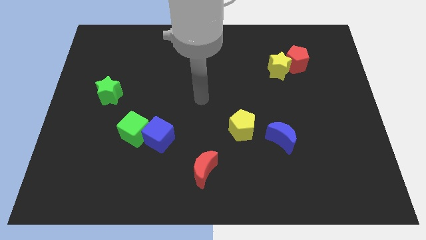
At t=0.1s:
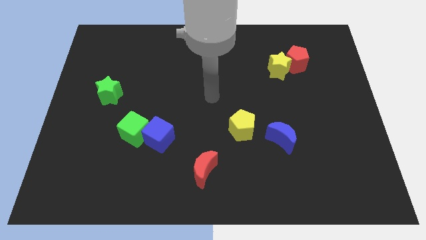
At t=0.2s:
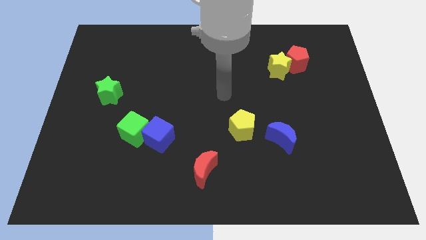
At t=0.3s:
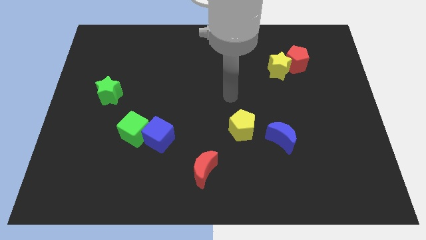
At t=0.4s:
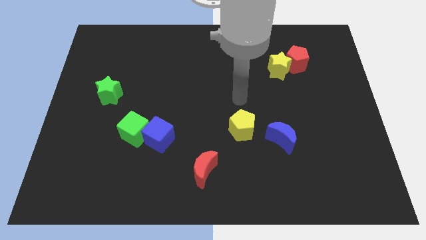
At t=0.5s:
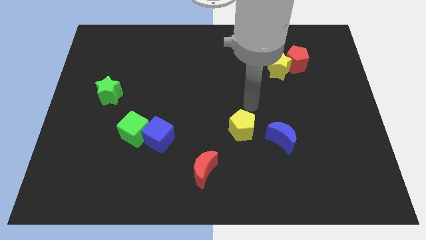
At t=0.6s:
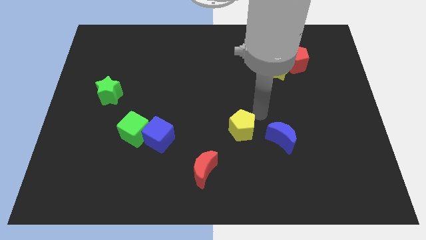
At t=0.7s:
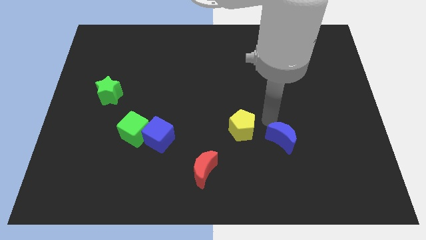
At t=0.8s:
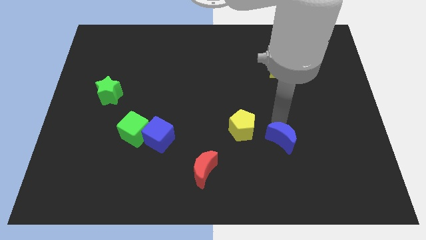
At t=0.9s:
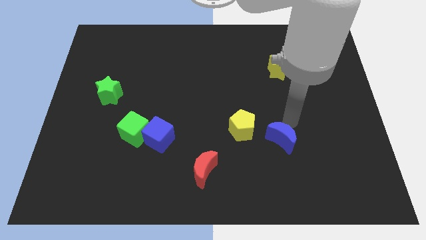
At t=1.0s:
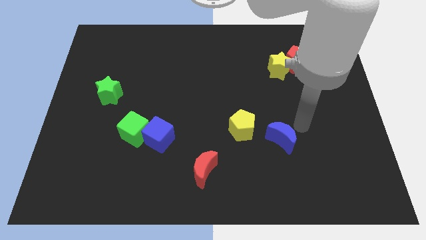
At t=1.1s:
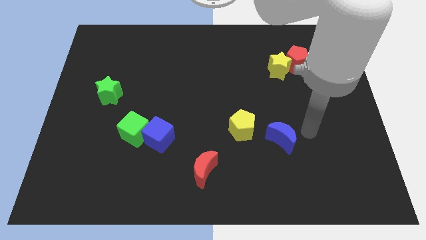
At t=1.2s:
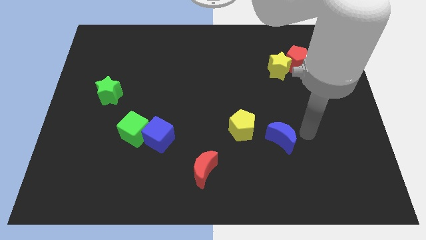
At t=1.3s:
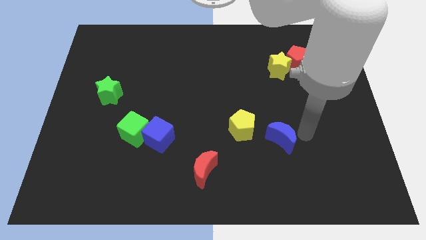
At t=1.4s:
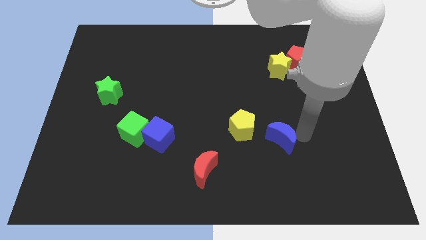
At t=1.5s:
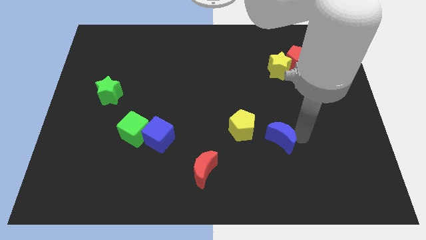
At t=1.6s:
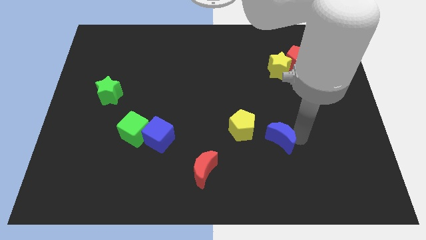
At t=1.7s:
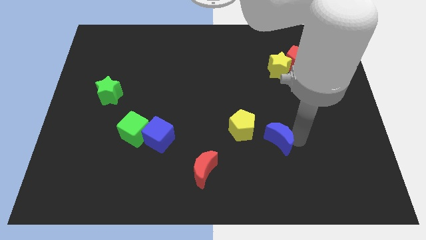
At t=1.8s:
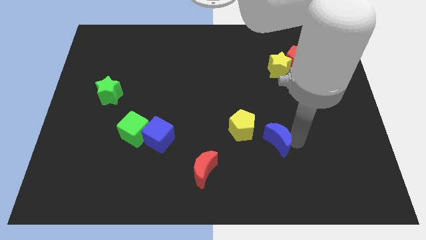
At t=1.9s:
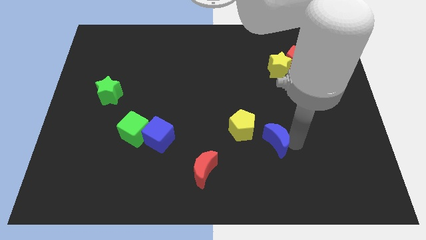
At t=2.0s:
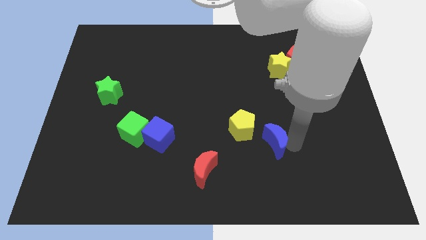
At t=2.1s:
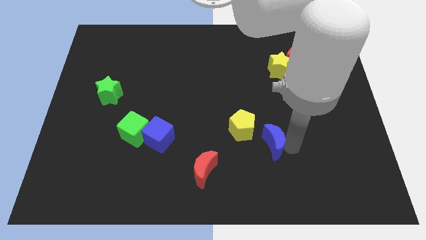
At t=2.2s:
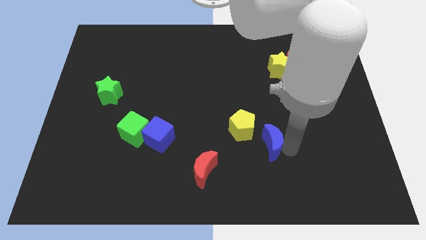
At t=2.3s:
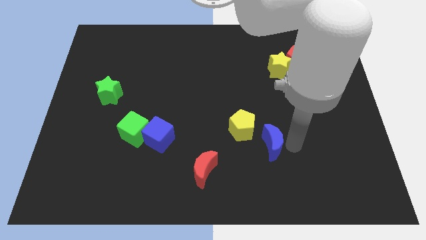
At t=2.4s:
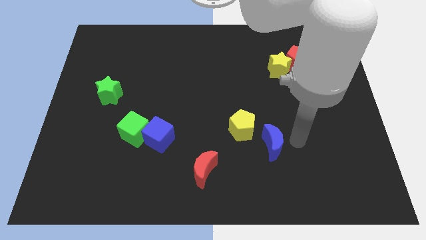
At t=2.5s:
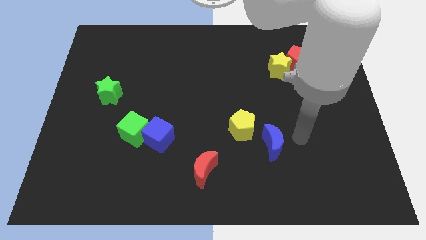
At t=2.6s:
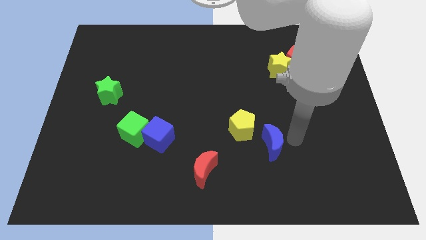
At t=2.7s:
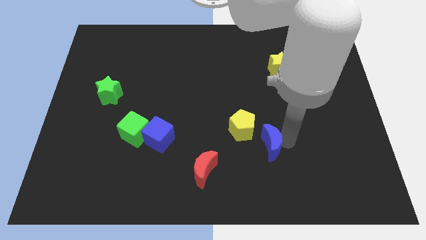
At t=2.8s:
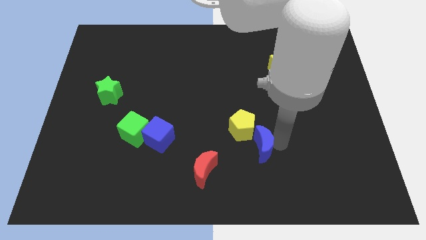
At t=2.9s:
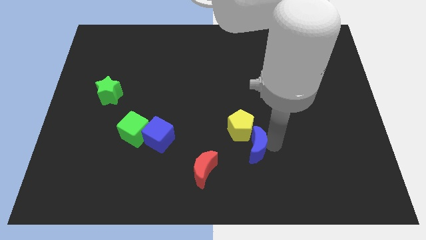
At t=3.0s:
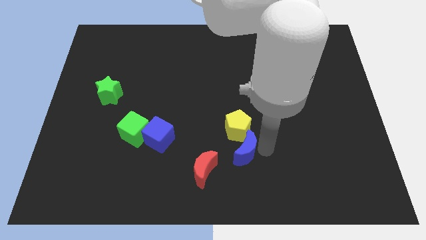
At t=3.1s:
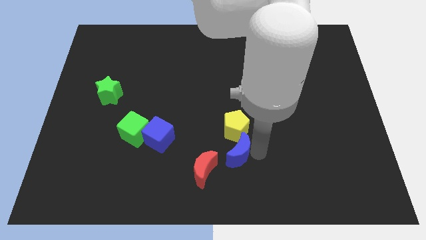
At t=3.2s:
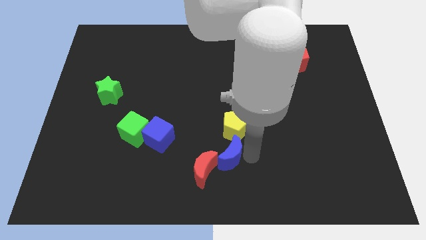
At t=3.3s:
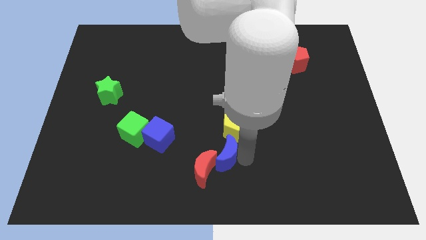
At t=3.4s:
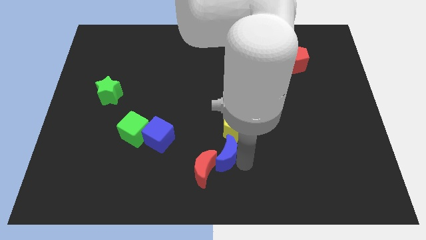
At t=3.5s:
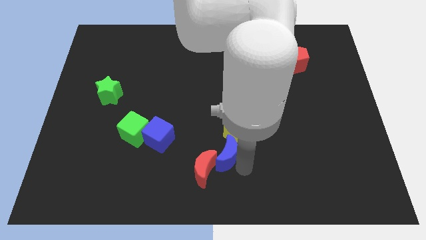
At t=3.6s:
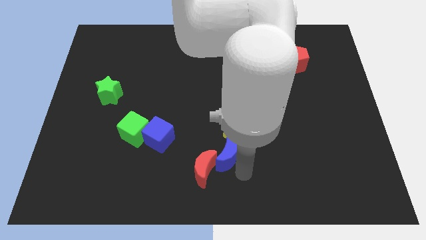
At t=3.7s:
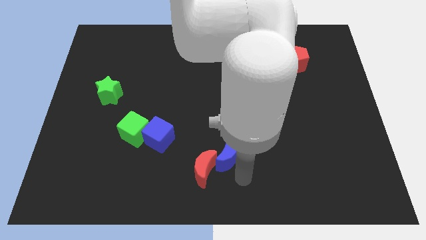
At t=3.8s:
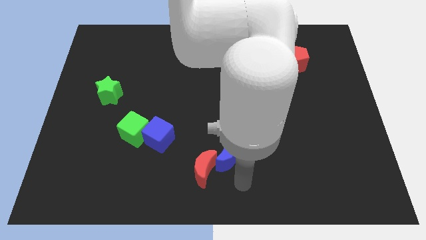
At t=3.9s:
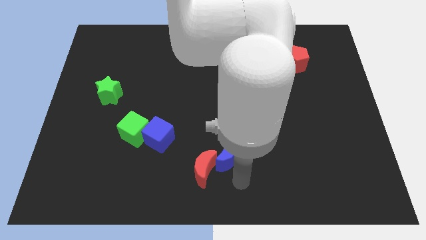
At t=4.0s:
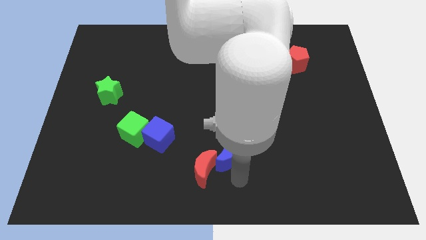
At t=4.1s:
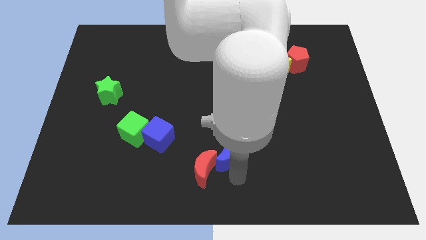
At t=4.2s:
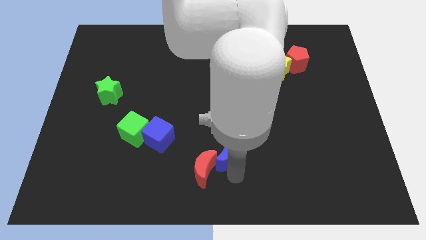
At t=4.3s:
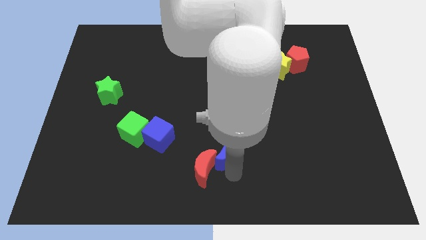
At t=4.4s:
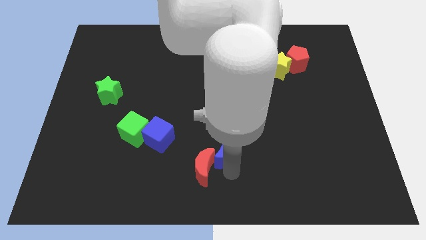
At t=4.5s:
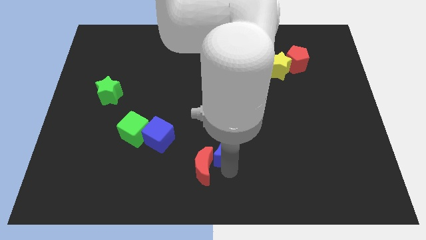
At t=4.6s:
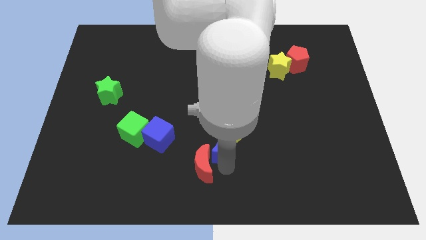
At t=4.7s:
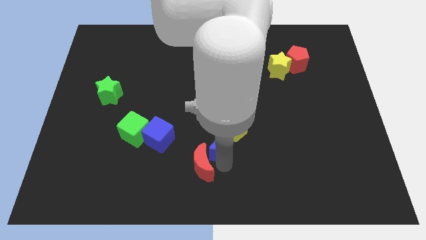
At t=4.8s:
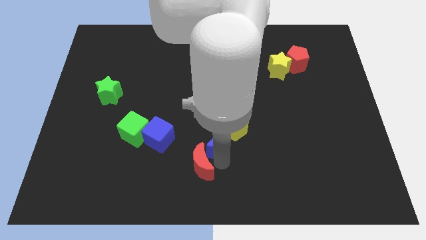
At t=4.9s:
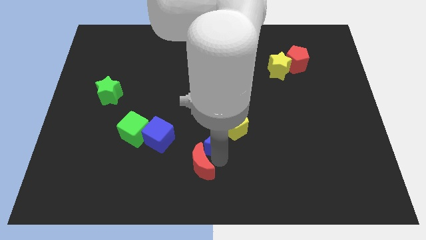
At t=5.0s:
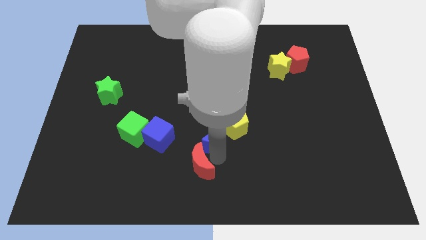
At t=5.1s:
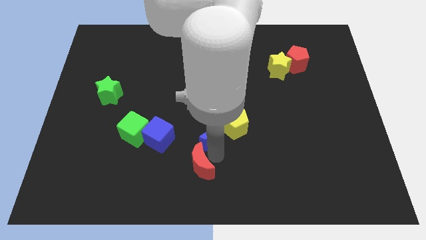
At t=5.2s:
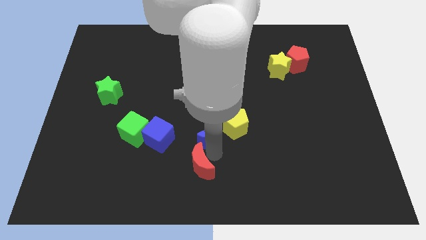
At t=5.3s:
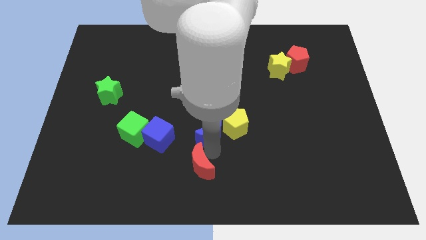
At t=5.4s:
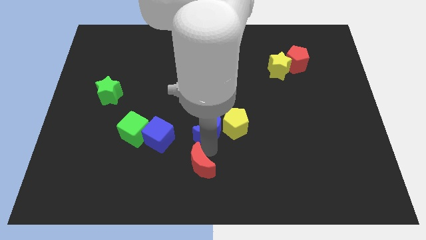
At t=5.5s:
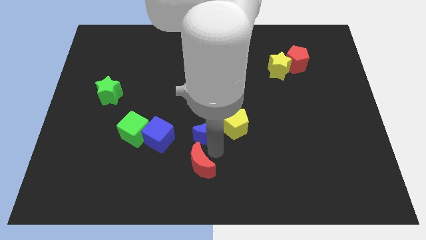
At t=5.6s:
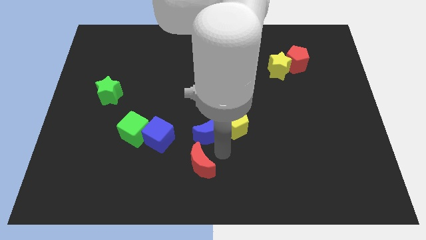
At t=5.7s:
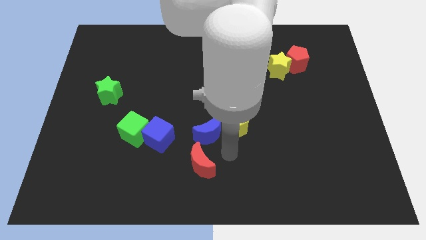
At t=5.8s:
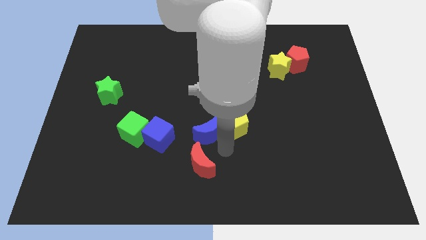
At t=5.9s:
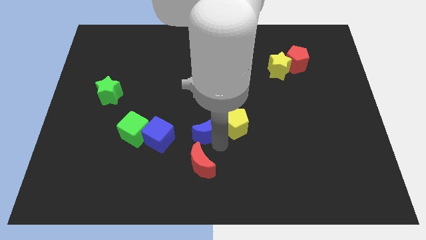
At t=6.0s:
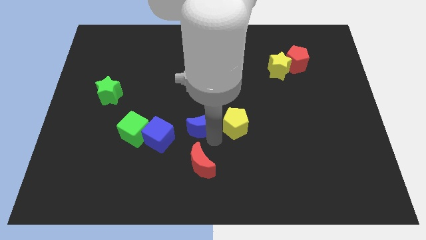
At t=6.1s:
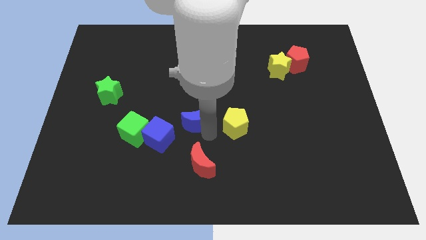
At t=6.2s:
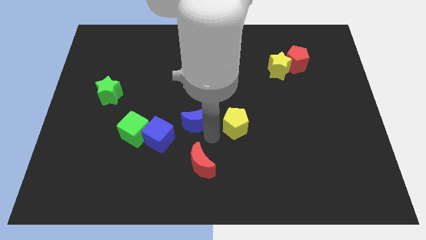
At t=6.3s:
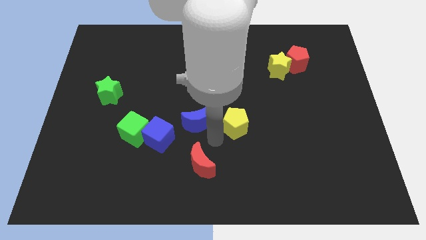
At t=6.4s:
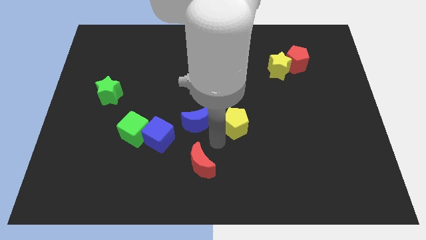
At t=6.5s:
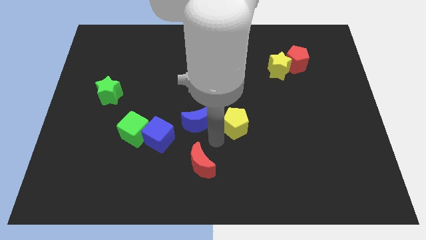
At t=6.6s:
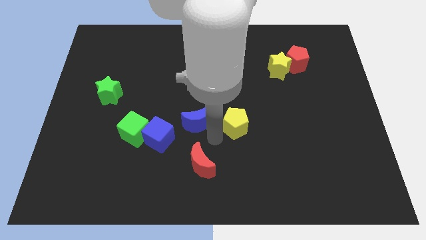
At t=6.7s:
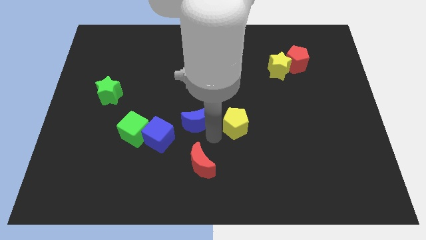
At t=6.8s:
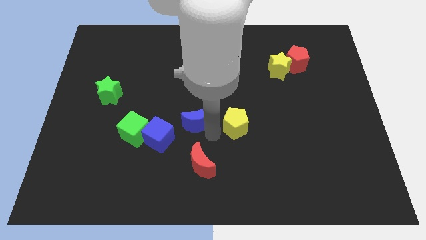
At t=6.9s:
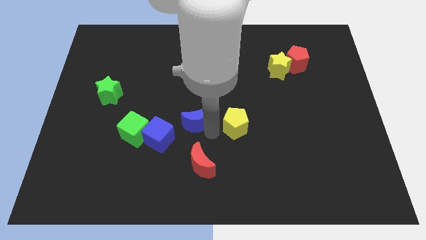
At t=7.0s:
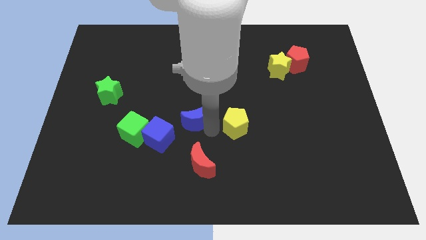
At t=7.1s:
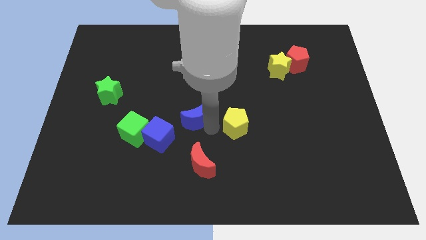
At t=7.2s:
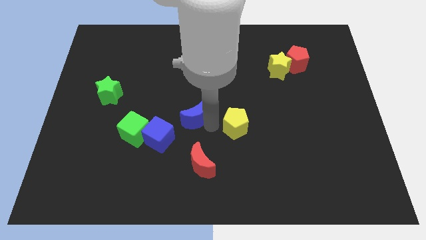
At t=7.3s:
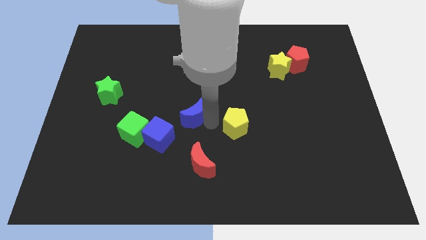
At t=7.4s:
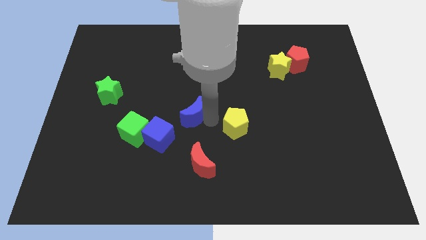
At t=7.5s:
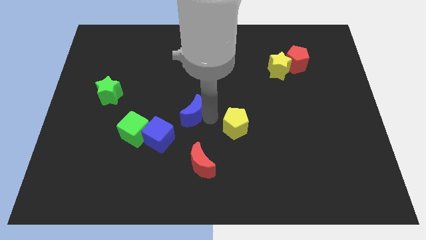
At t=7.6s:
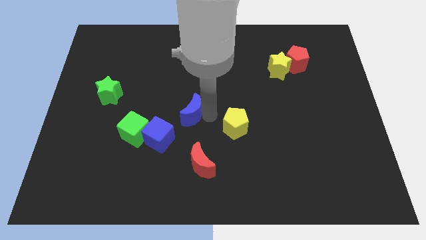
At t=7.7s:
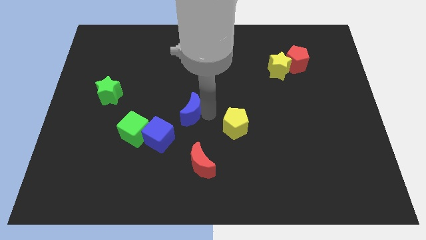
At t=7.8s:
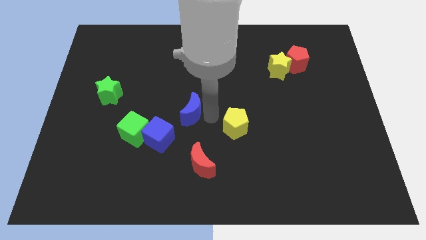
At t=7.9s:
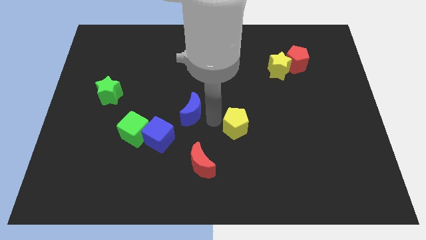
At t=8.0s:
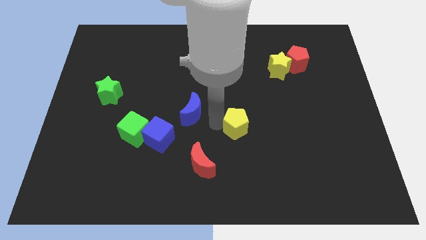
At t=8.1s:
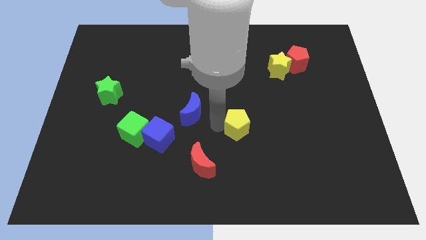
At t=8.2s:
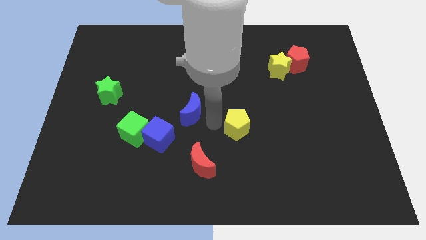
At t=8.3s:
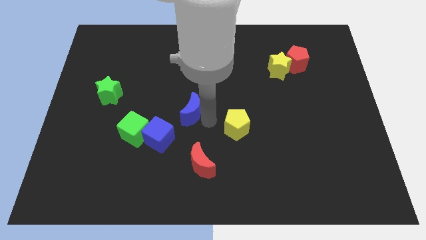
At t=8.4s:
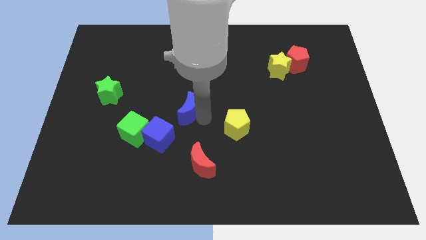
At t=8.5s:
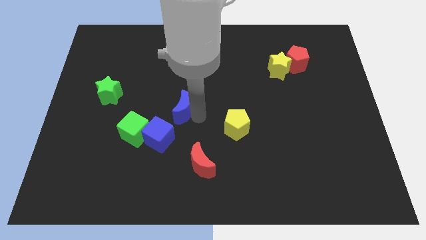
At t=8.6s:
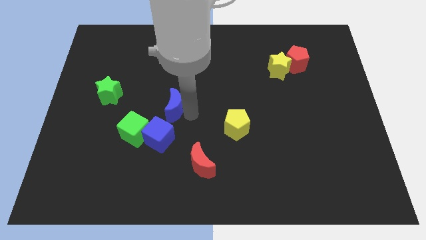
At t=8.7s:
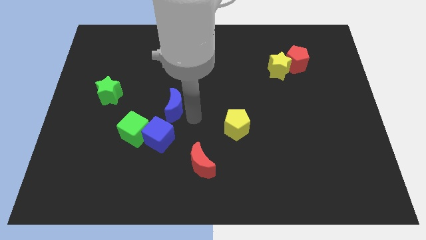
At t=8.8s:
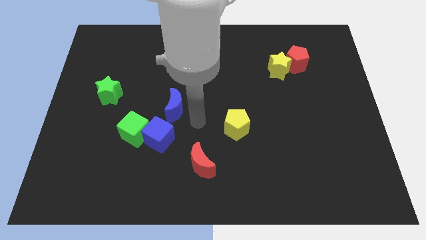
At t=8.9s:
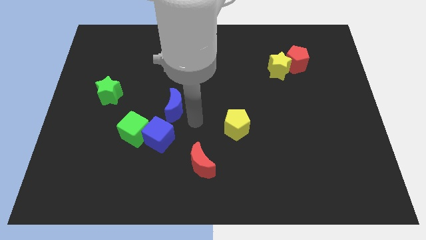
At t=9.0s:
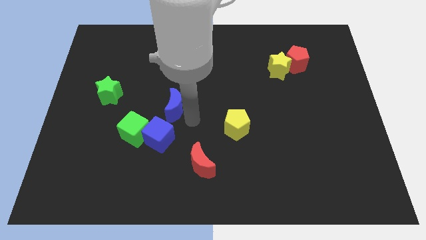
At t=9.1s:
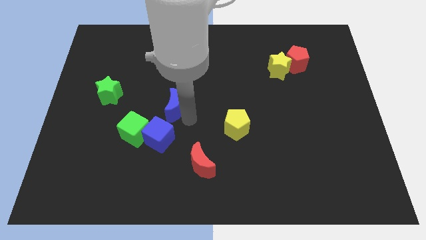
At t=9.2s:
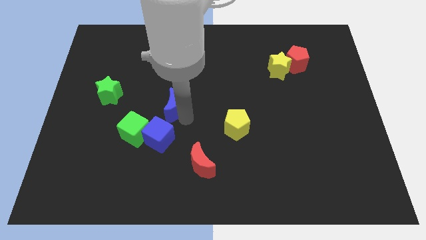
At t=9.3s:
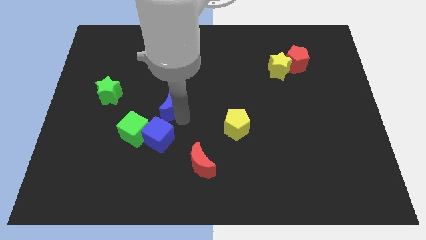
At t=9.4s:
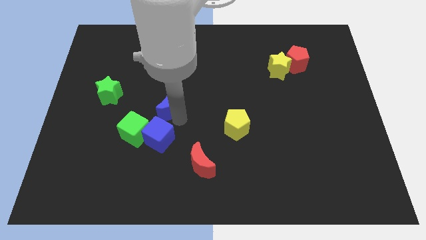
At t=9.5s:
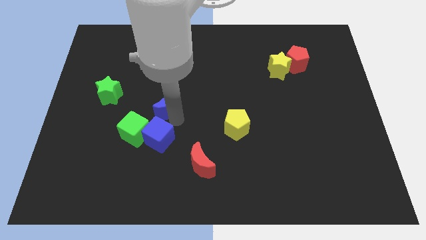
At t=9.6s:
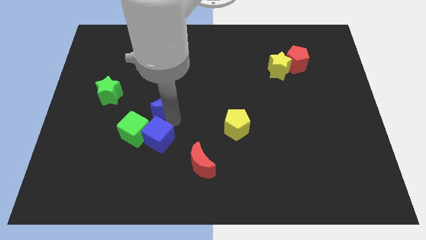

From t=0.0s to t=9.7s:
push the blue moon to the right of the green star
